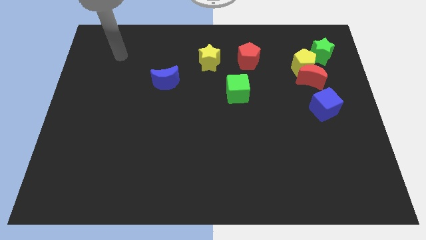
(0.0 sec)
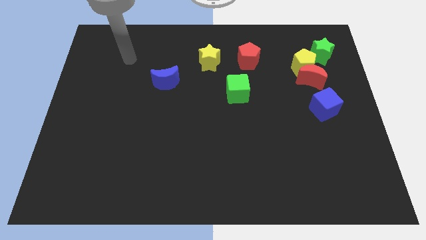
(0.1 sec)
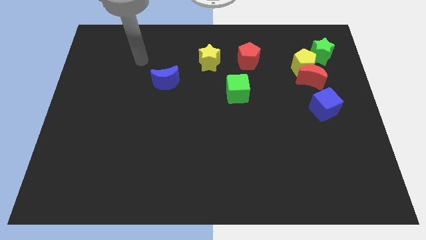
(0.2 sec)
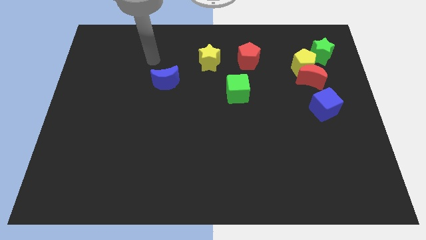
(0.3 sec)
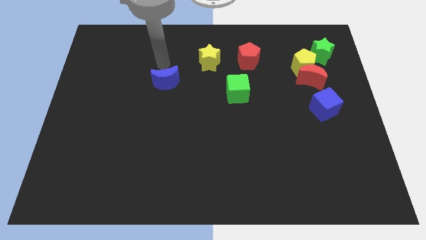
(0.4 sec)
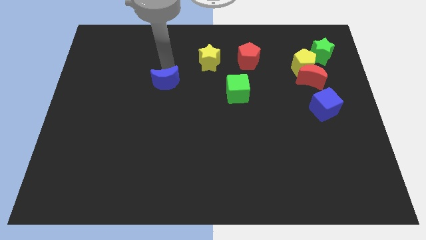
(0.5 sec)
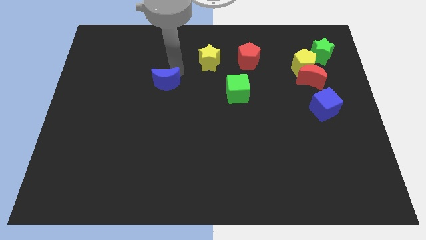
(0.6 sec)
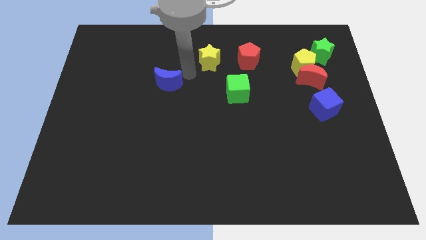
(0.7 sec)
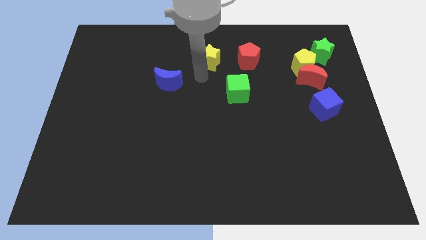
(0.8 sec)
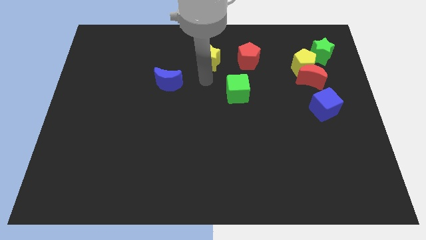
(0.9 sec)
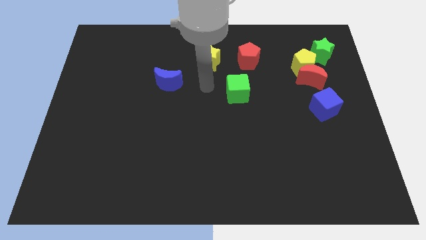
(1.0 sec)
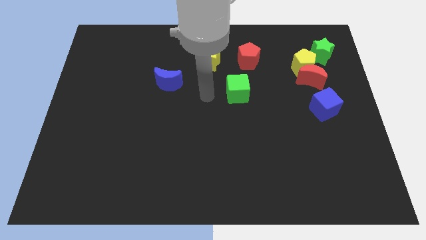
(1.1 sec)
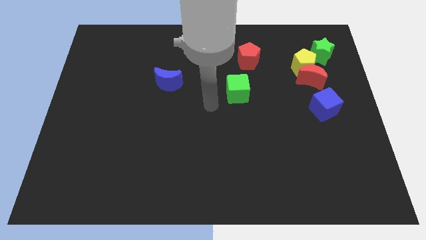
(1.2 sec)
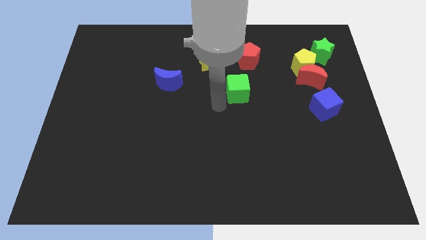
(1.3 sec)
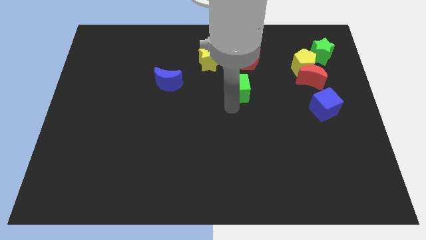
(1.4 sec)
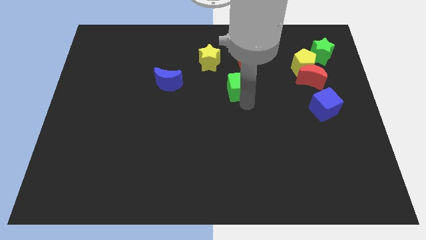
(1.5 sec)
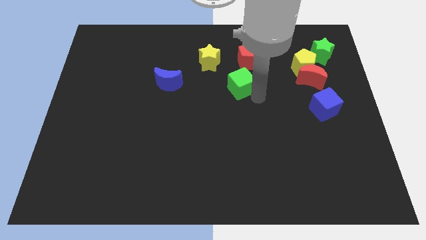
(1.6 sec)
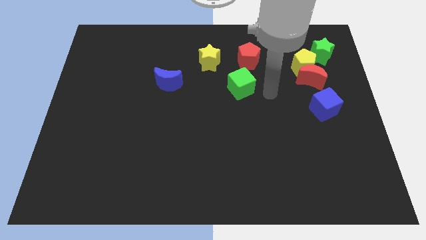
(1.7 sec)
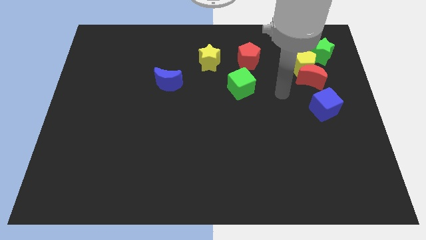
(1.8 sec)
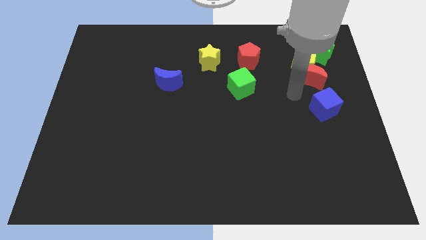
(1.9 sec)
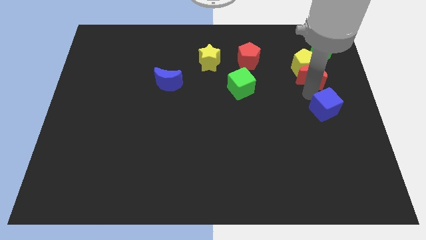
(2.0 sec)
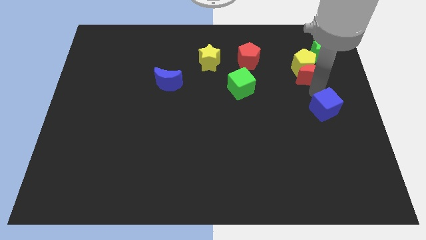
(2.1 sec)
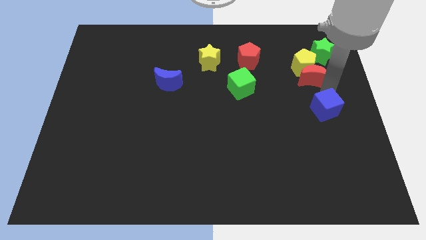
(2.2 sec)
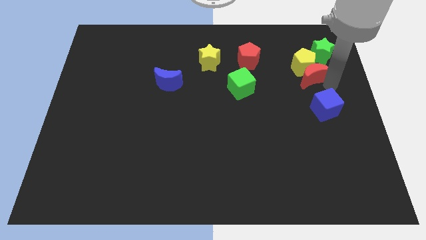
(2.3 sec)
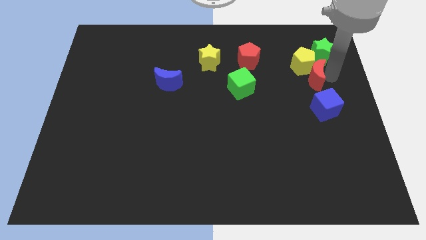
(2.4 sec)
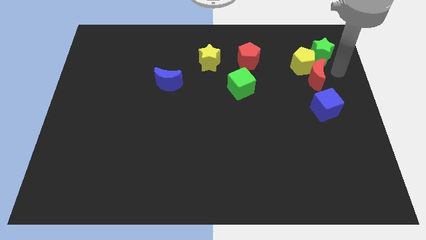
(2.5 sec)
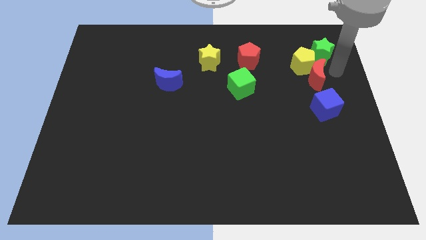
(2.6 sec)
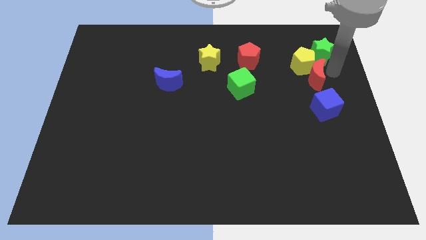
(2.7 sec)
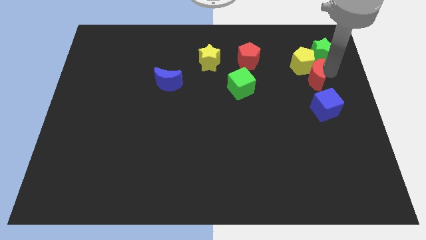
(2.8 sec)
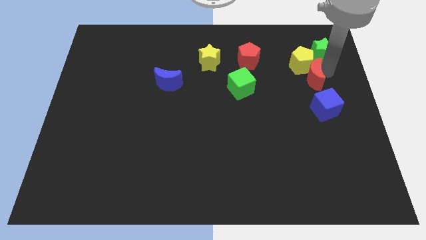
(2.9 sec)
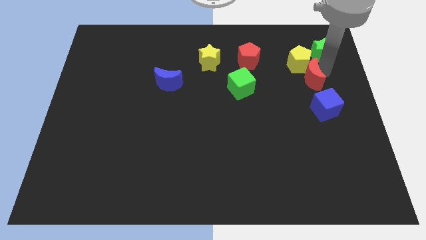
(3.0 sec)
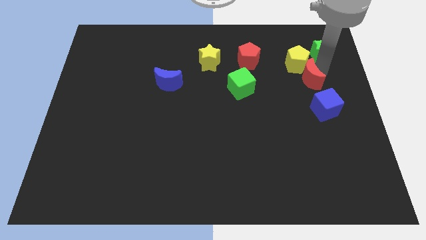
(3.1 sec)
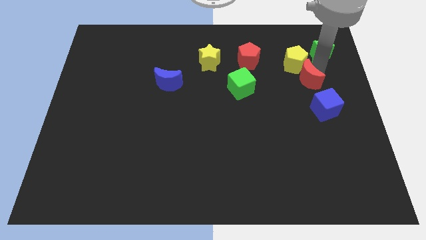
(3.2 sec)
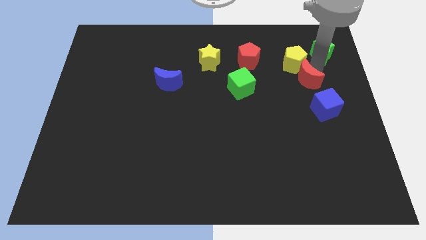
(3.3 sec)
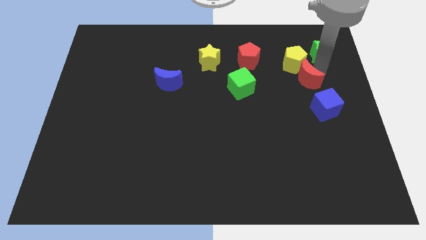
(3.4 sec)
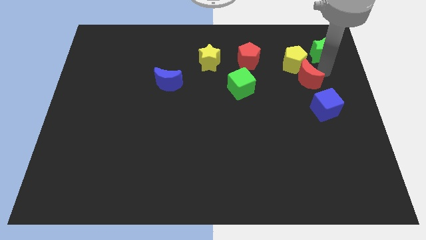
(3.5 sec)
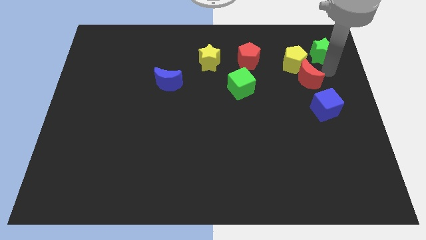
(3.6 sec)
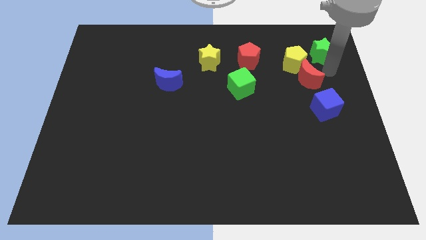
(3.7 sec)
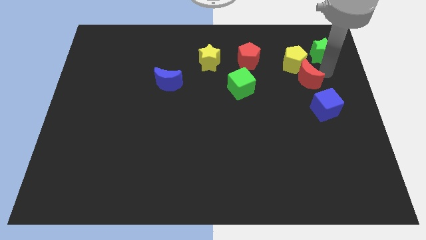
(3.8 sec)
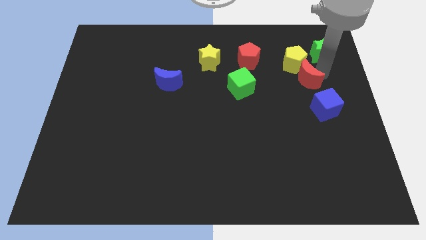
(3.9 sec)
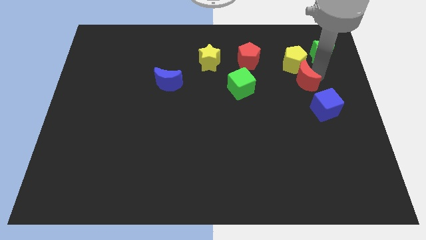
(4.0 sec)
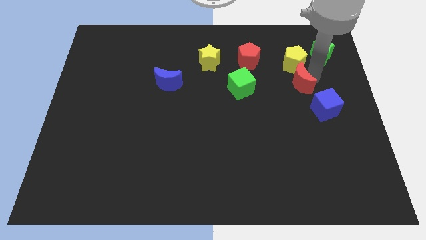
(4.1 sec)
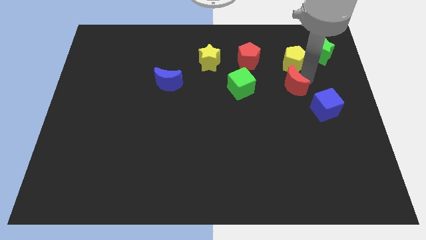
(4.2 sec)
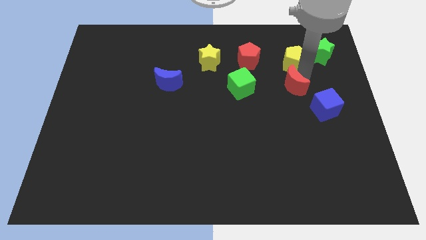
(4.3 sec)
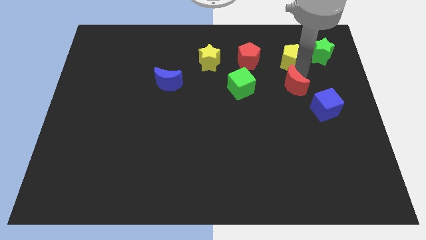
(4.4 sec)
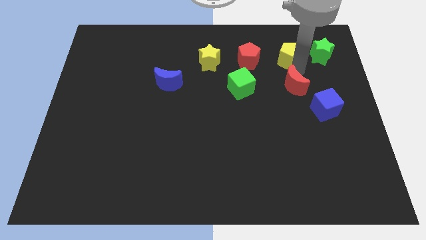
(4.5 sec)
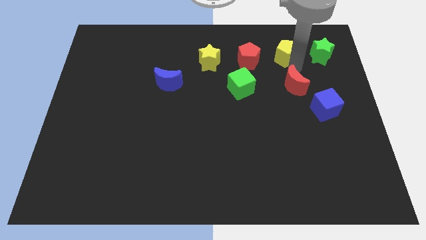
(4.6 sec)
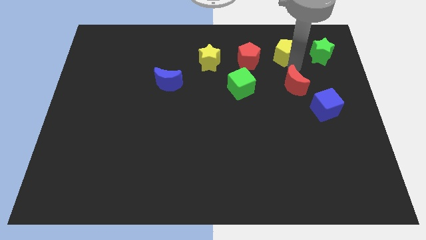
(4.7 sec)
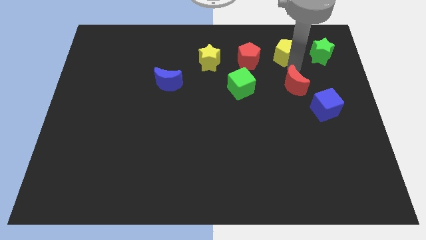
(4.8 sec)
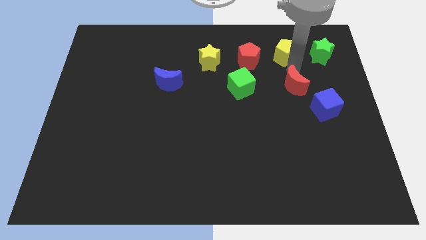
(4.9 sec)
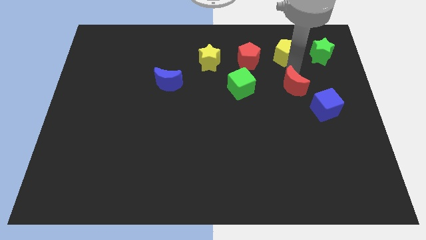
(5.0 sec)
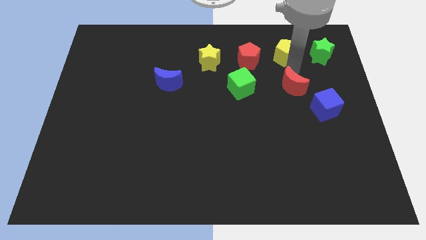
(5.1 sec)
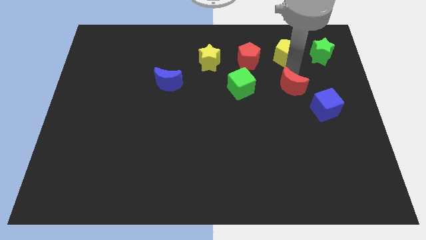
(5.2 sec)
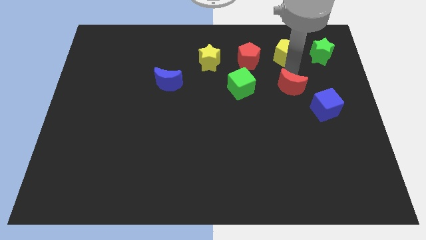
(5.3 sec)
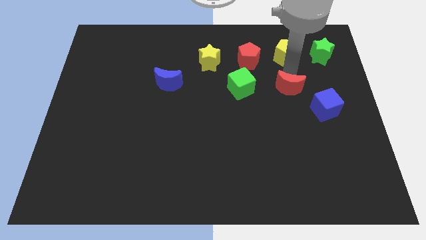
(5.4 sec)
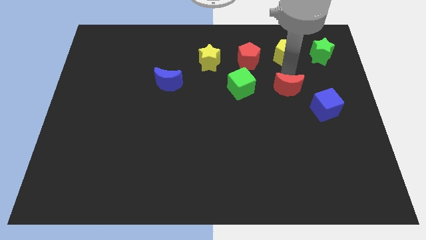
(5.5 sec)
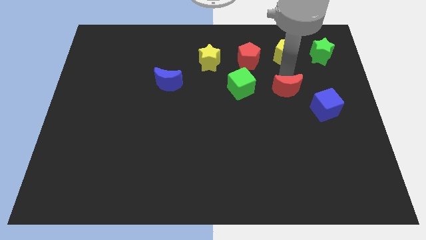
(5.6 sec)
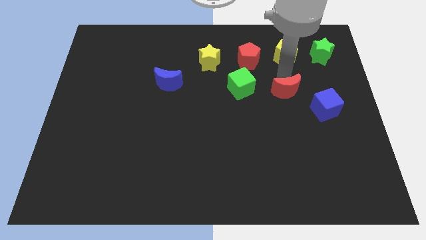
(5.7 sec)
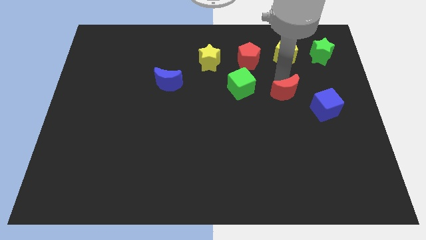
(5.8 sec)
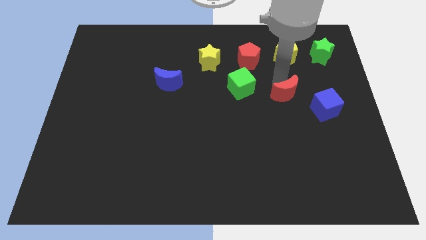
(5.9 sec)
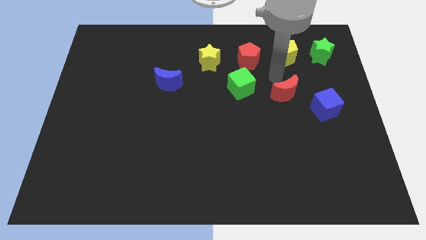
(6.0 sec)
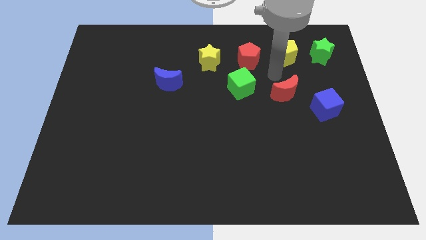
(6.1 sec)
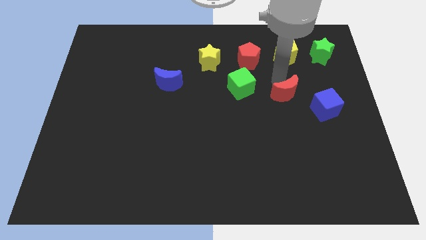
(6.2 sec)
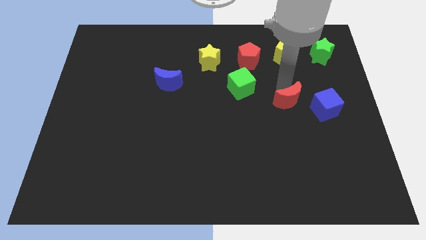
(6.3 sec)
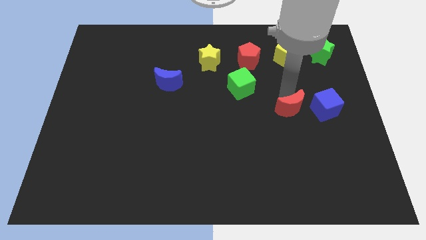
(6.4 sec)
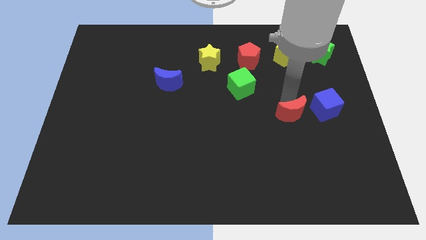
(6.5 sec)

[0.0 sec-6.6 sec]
put the red moon to the bottom left of the blue cube
